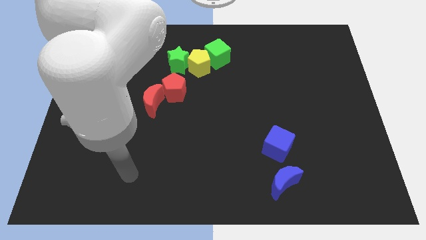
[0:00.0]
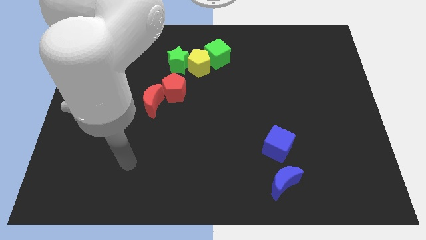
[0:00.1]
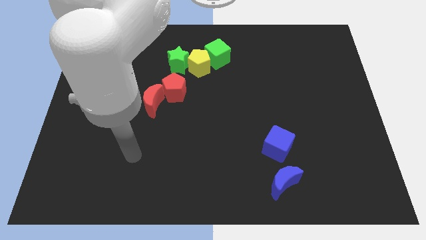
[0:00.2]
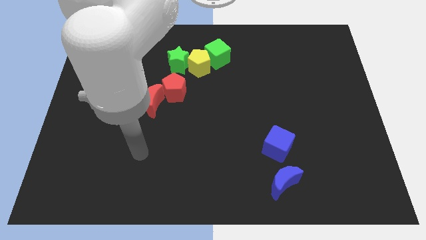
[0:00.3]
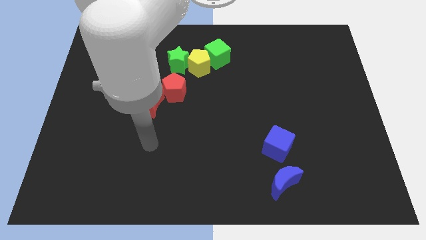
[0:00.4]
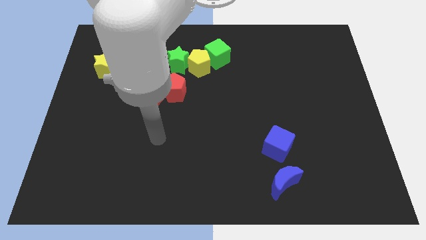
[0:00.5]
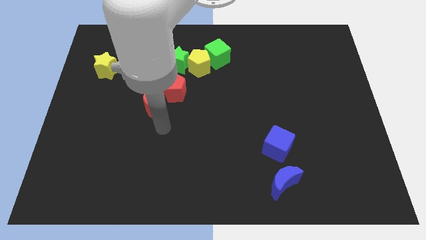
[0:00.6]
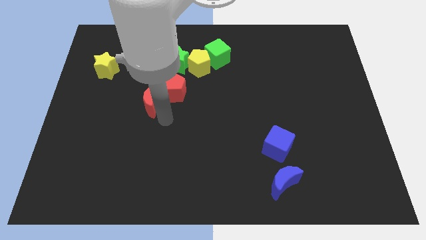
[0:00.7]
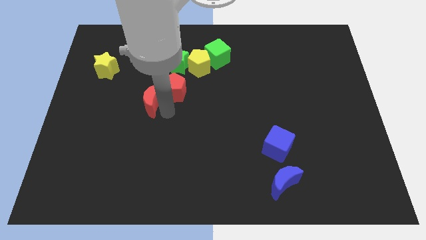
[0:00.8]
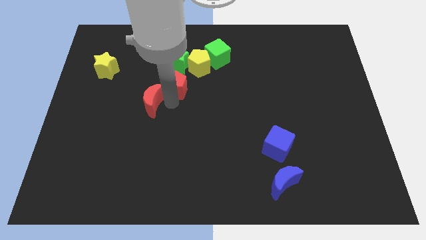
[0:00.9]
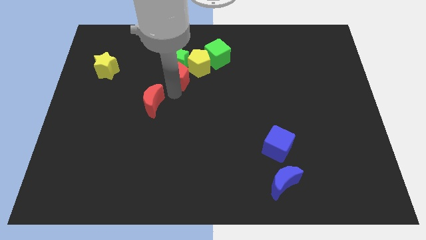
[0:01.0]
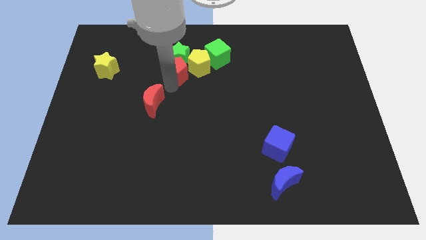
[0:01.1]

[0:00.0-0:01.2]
pull the red moon apart from the red pentagon

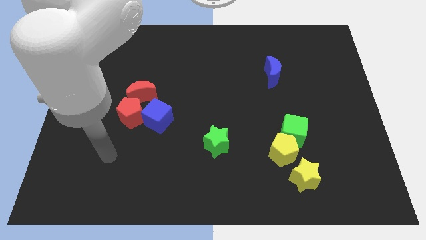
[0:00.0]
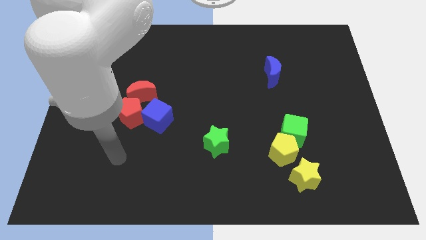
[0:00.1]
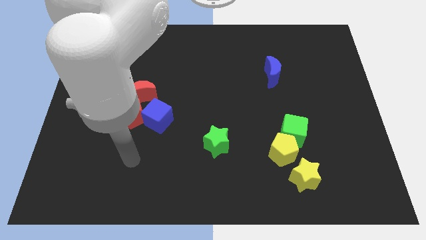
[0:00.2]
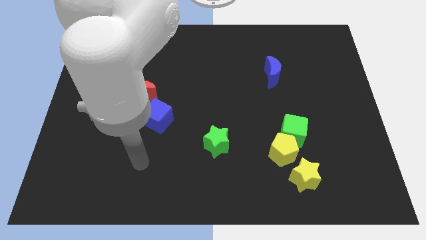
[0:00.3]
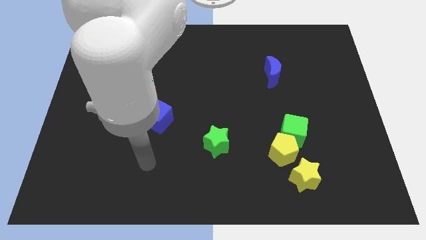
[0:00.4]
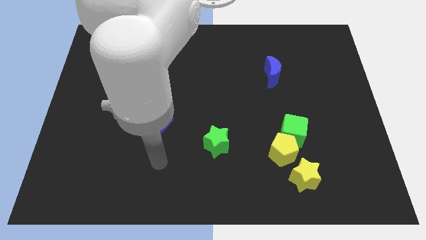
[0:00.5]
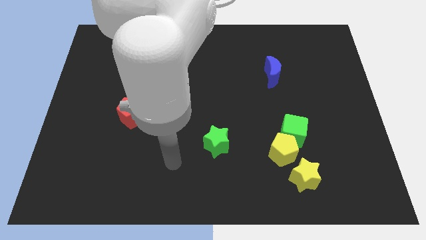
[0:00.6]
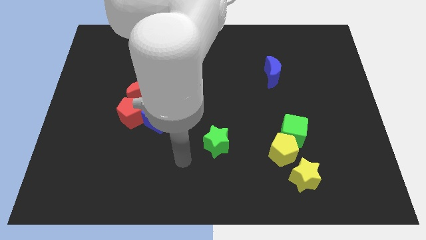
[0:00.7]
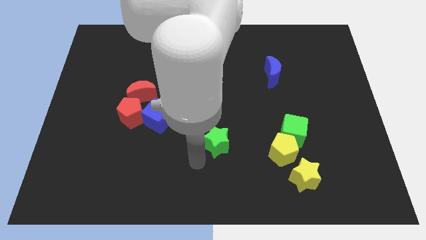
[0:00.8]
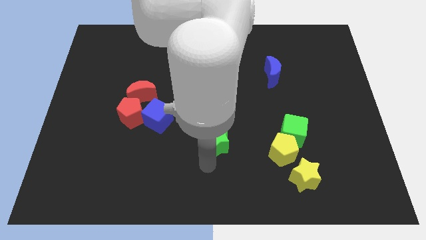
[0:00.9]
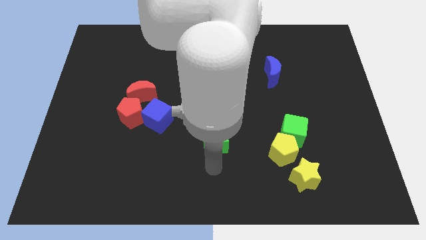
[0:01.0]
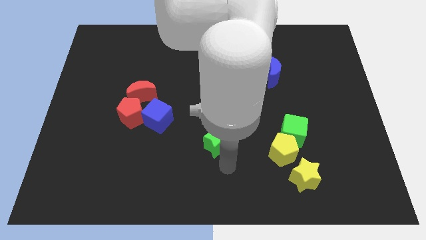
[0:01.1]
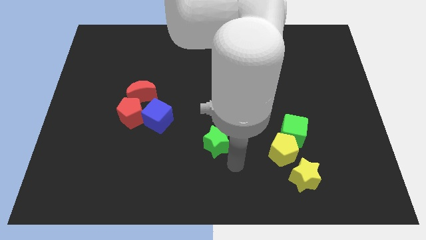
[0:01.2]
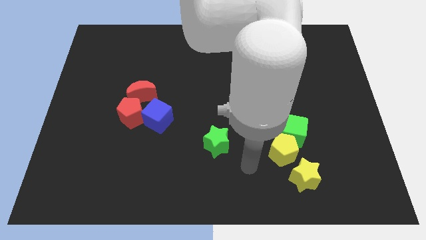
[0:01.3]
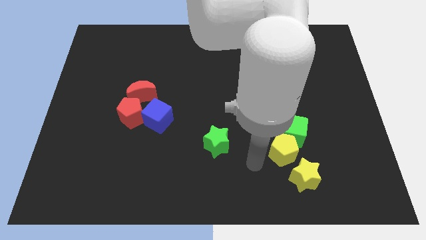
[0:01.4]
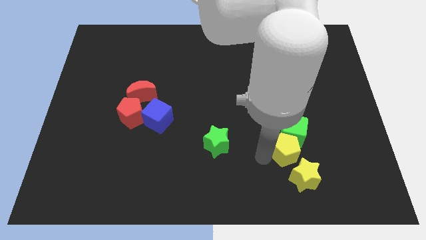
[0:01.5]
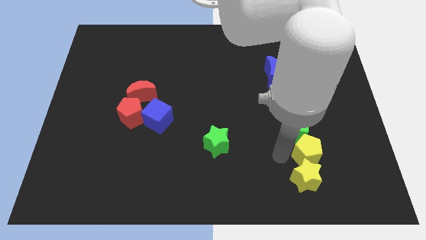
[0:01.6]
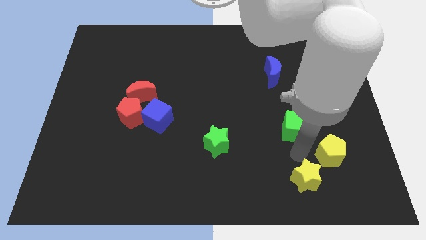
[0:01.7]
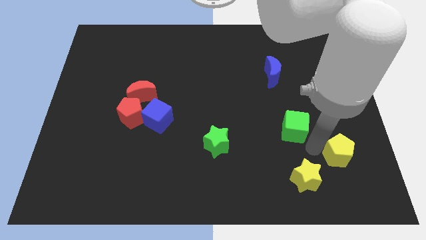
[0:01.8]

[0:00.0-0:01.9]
pull the green cube apart from the yellow pentagon

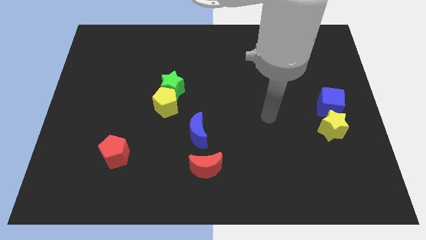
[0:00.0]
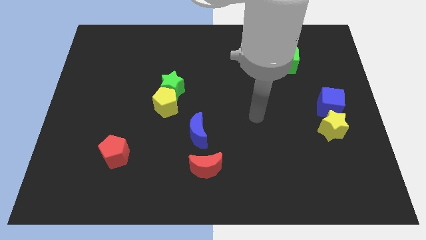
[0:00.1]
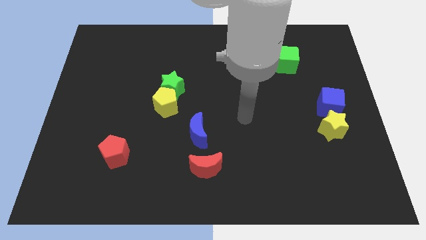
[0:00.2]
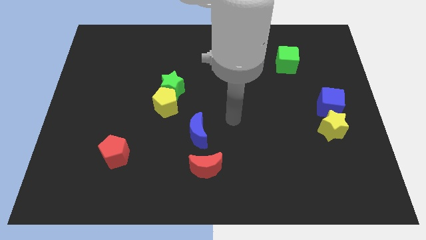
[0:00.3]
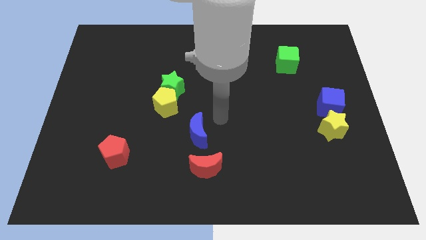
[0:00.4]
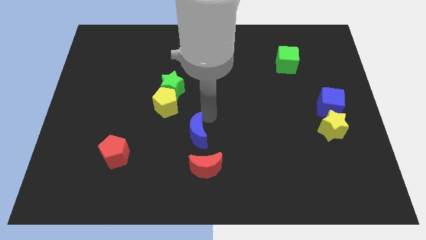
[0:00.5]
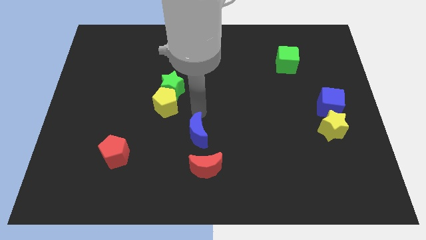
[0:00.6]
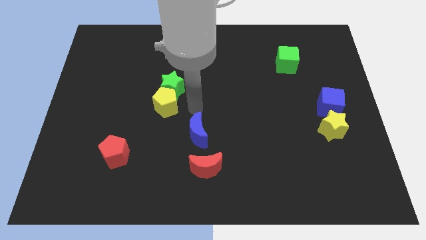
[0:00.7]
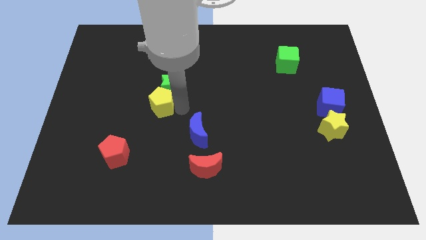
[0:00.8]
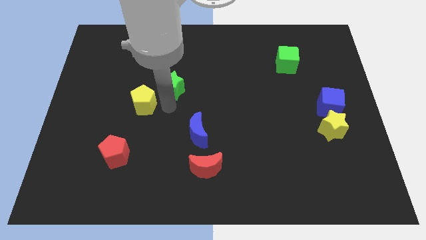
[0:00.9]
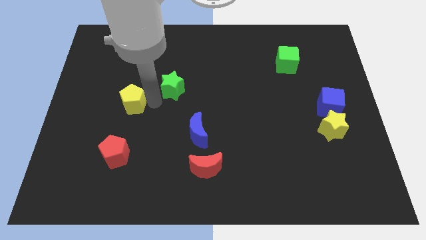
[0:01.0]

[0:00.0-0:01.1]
separate the green star from the yellow pentagon

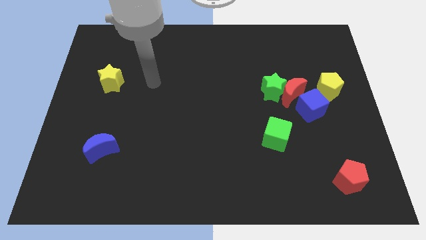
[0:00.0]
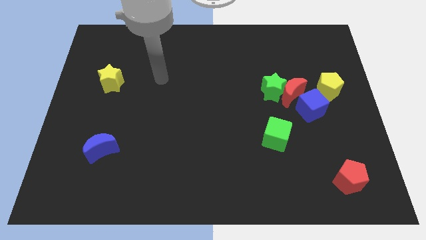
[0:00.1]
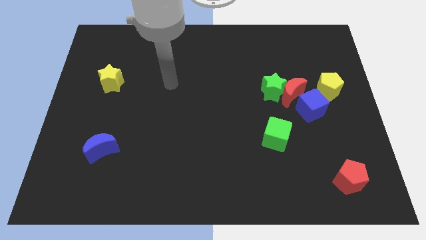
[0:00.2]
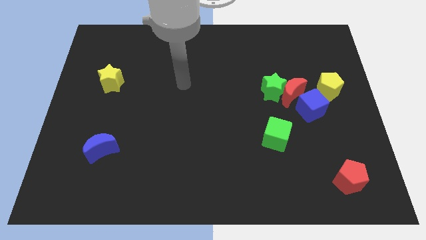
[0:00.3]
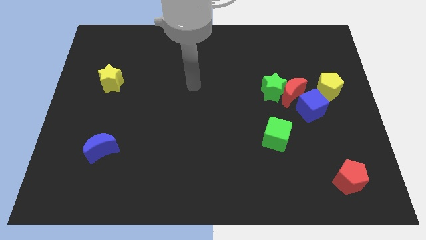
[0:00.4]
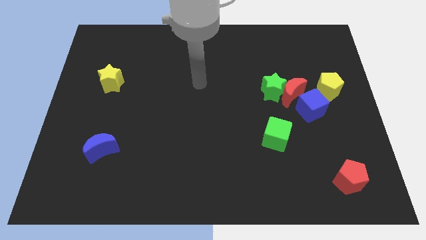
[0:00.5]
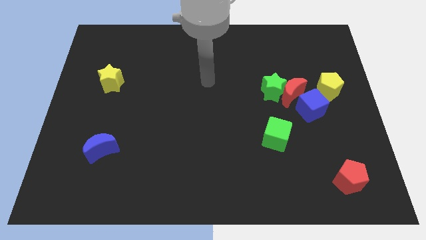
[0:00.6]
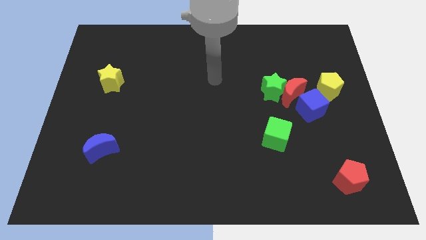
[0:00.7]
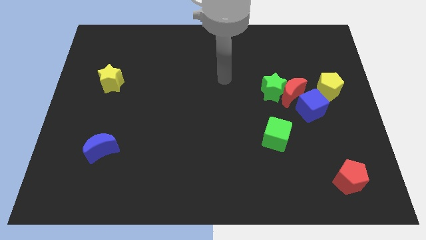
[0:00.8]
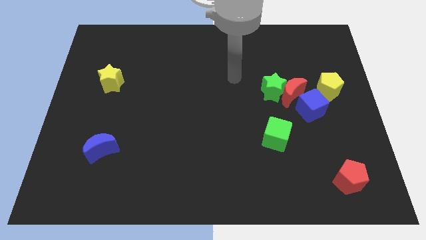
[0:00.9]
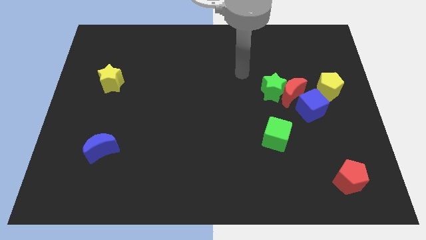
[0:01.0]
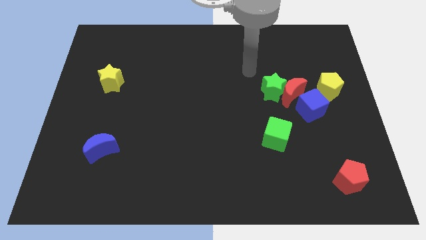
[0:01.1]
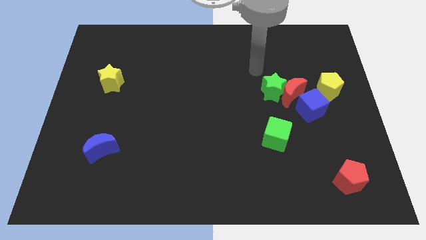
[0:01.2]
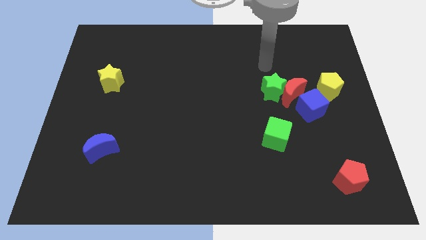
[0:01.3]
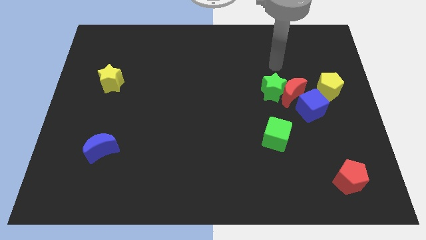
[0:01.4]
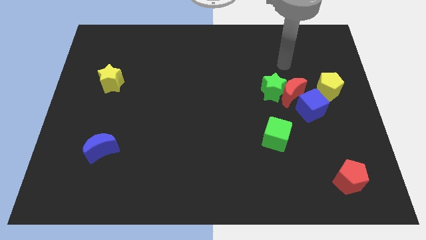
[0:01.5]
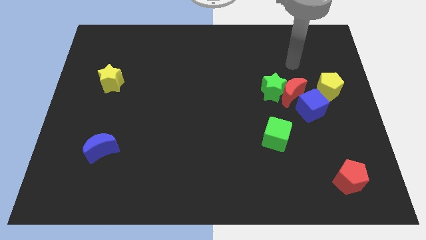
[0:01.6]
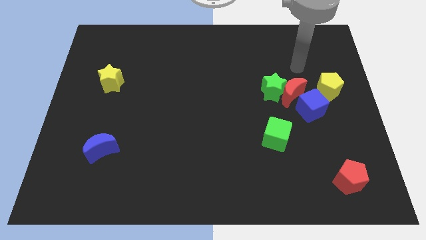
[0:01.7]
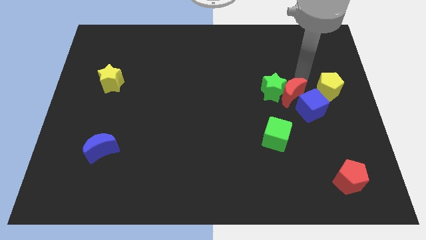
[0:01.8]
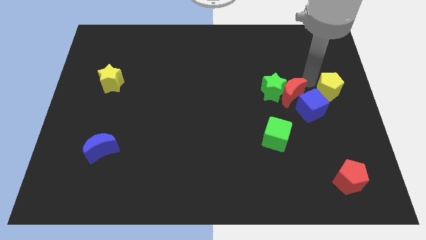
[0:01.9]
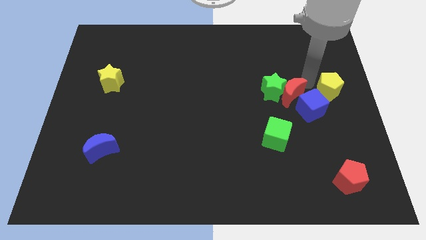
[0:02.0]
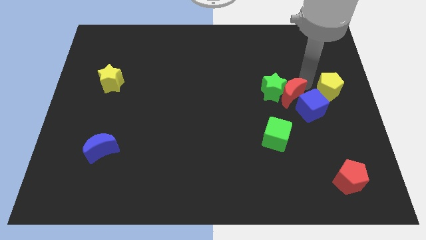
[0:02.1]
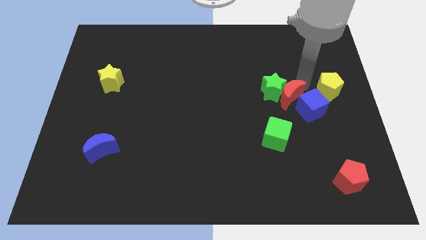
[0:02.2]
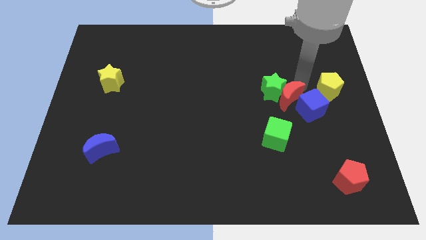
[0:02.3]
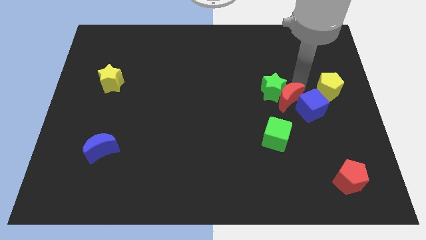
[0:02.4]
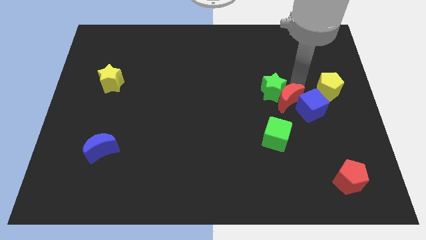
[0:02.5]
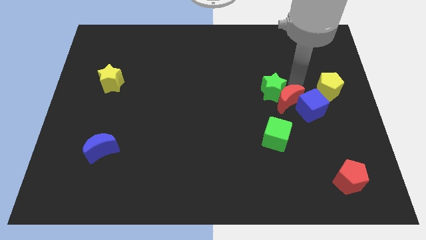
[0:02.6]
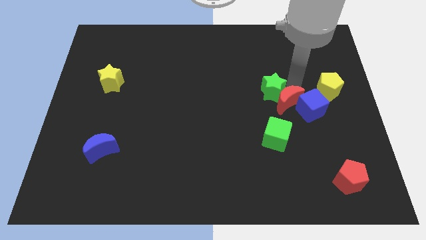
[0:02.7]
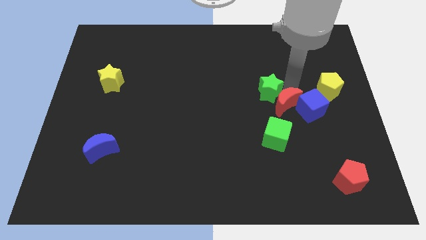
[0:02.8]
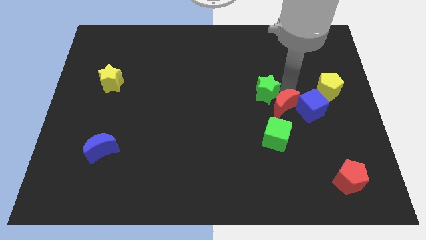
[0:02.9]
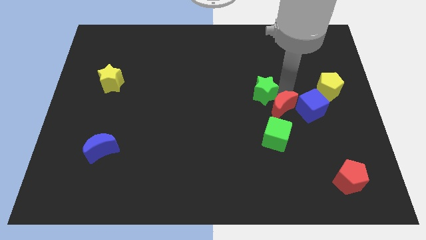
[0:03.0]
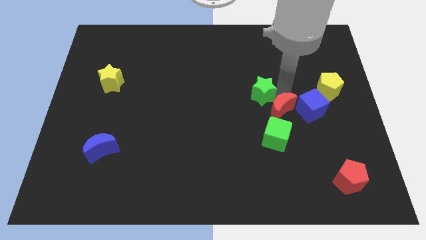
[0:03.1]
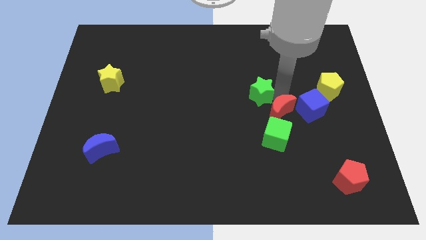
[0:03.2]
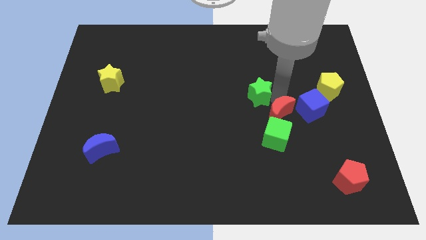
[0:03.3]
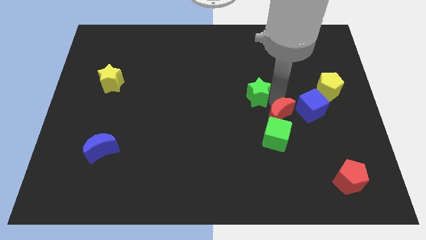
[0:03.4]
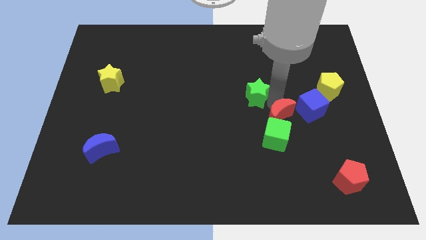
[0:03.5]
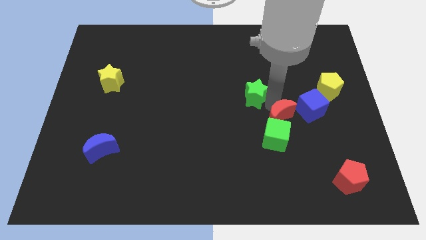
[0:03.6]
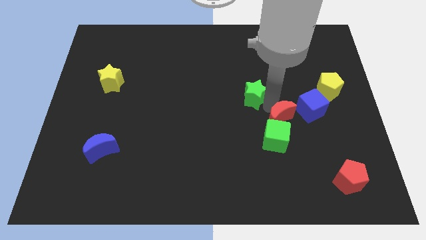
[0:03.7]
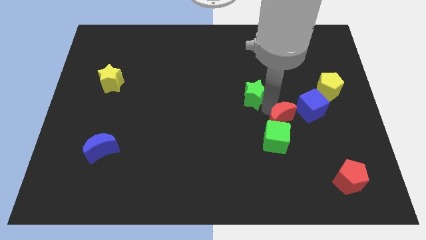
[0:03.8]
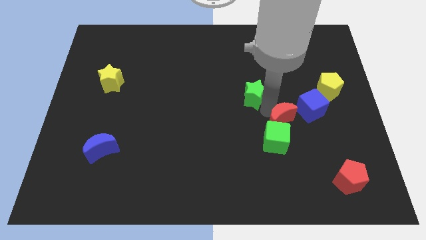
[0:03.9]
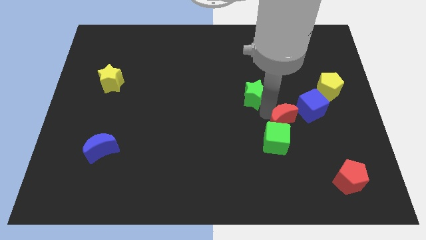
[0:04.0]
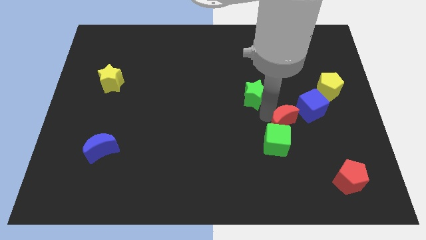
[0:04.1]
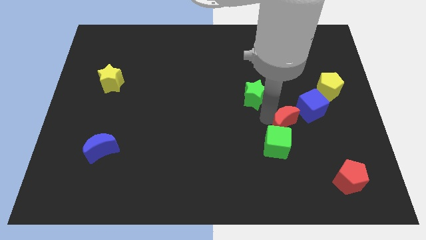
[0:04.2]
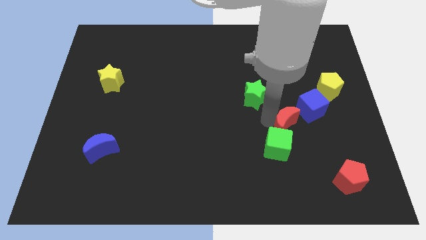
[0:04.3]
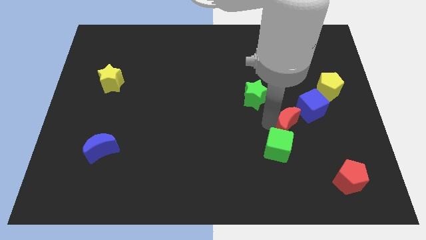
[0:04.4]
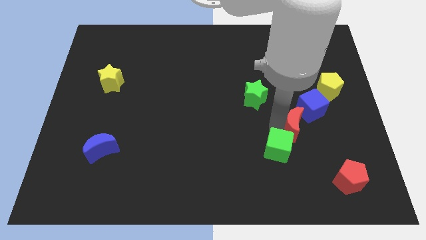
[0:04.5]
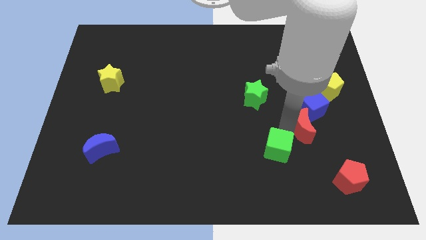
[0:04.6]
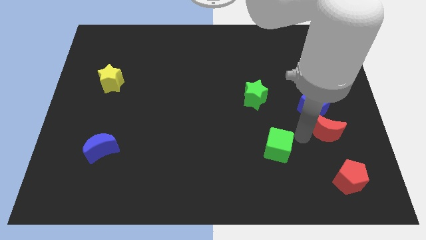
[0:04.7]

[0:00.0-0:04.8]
separate the red moon from the green star, blue cube, and yellow pentagon

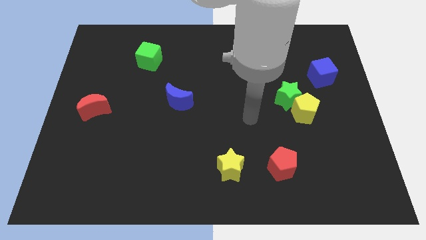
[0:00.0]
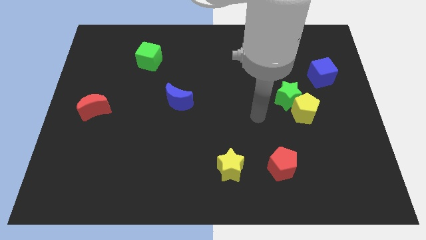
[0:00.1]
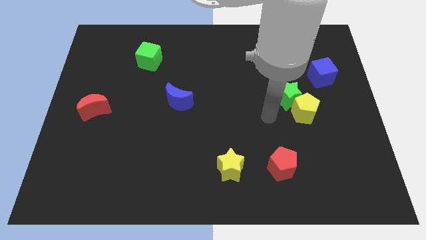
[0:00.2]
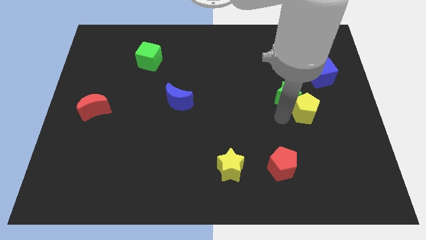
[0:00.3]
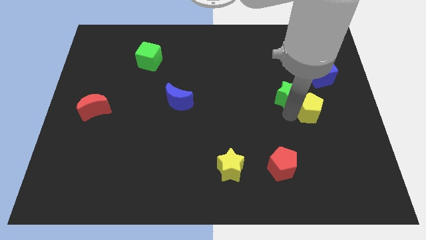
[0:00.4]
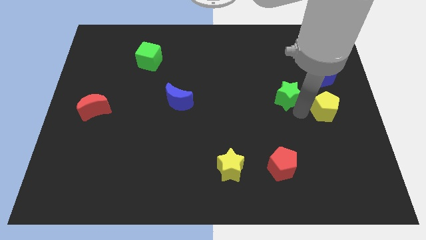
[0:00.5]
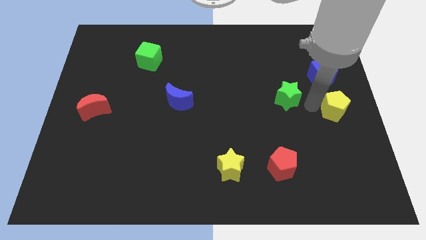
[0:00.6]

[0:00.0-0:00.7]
move the green star away from the yellow pentagon
